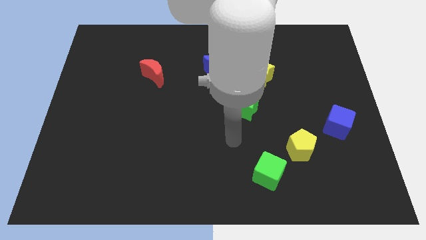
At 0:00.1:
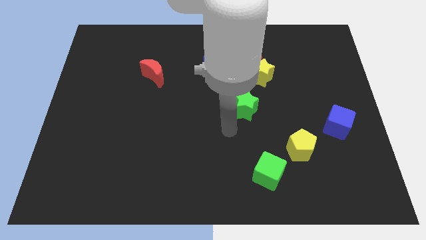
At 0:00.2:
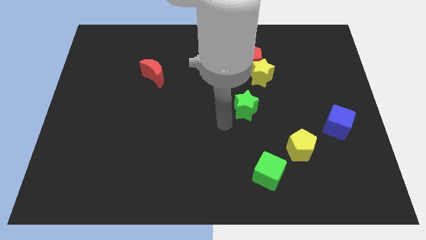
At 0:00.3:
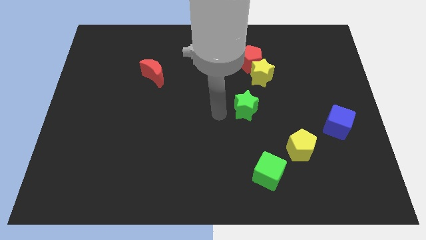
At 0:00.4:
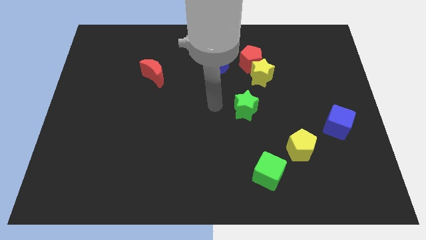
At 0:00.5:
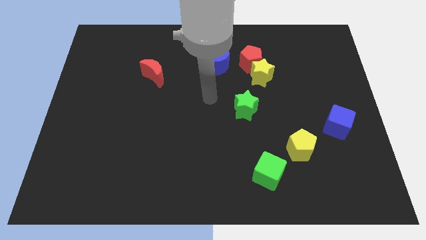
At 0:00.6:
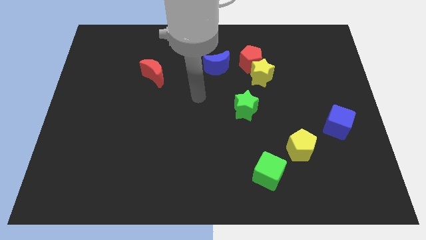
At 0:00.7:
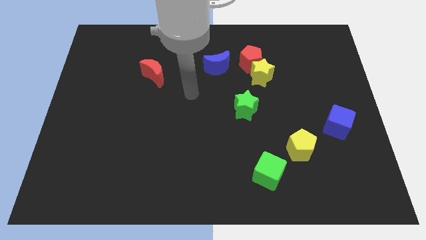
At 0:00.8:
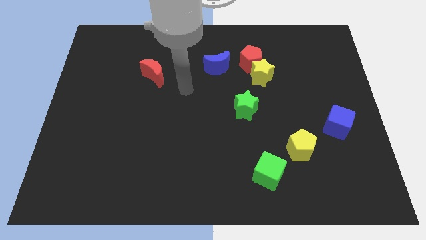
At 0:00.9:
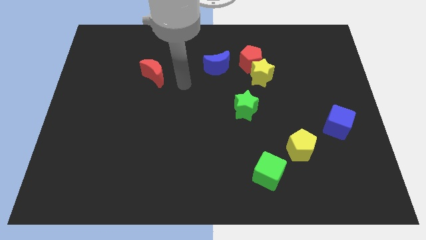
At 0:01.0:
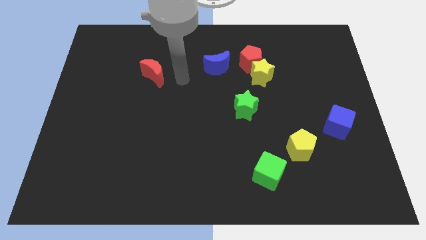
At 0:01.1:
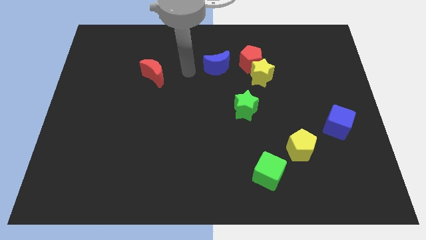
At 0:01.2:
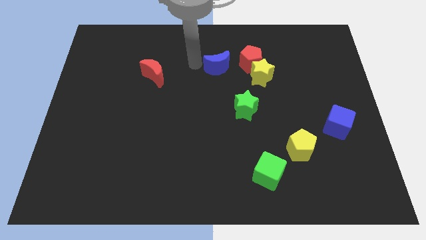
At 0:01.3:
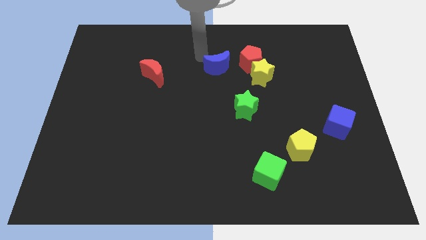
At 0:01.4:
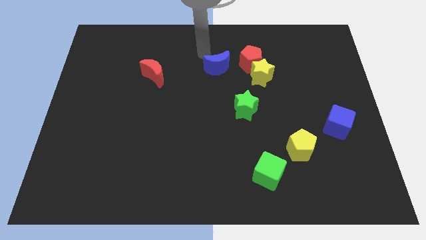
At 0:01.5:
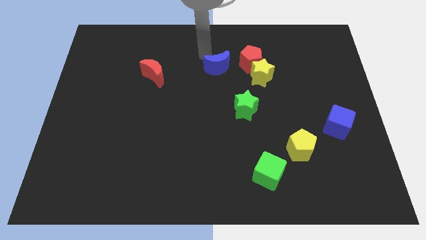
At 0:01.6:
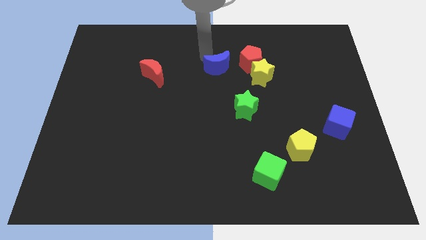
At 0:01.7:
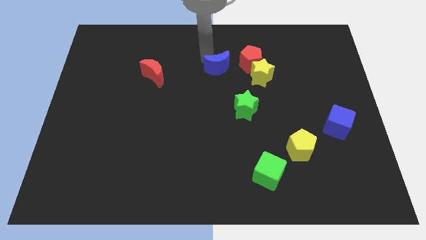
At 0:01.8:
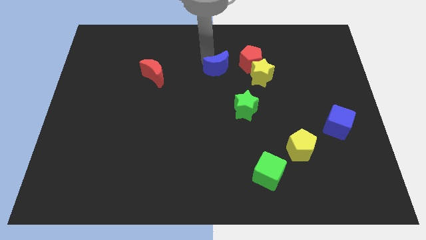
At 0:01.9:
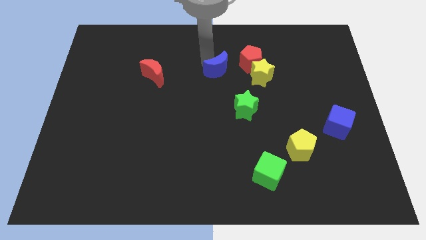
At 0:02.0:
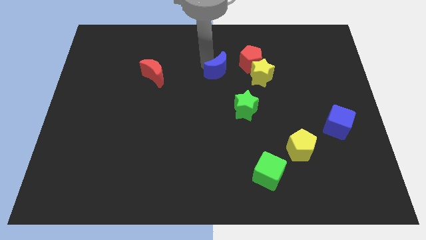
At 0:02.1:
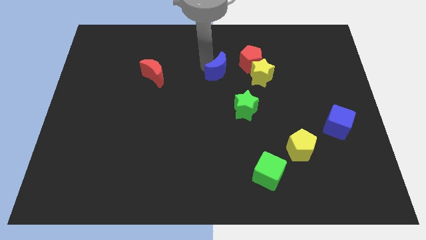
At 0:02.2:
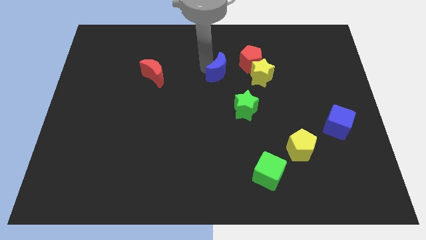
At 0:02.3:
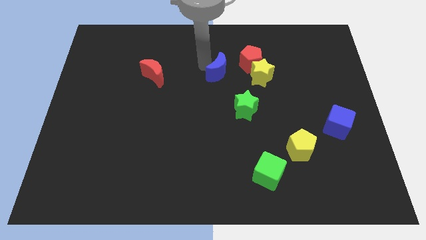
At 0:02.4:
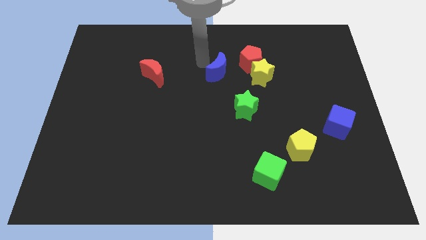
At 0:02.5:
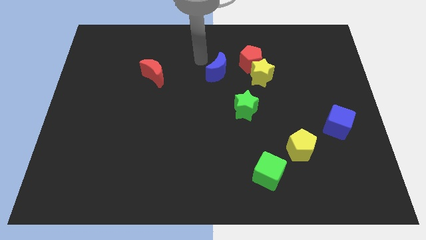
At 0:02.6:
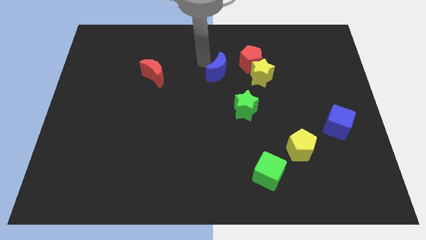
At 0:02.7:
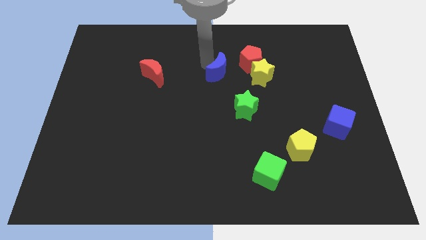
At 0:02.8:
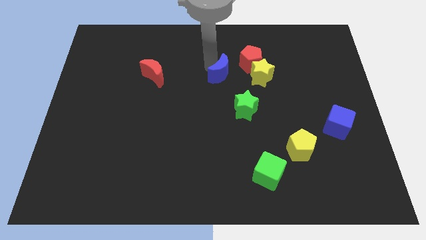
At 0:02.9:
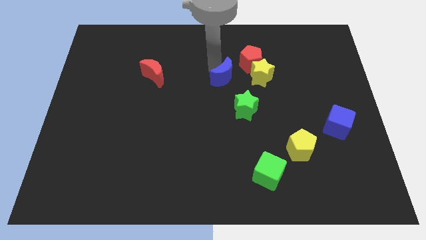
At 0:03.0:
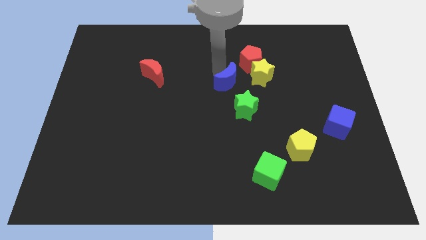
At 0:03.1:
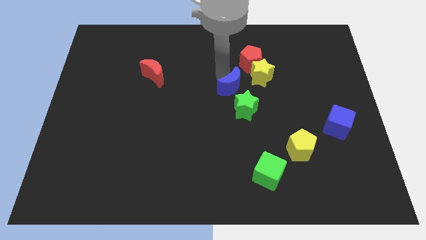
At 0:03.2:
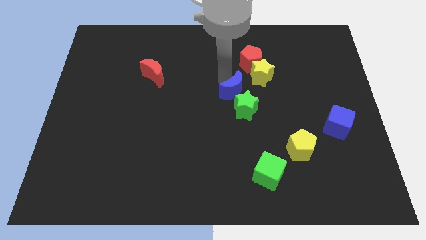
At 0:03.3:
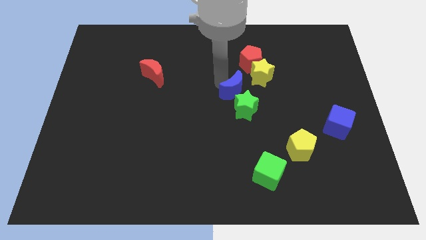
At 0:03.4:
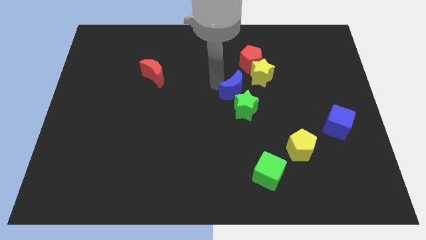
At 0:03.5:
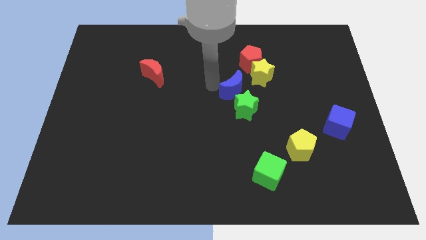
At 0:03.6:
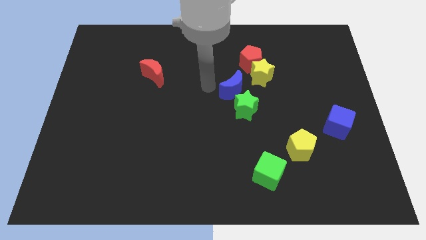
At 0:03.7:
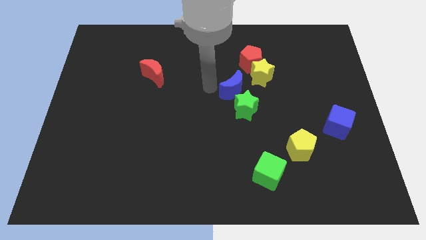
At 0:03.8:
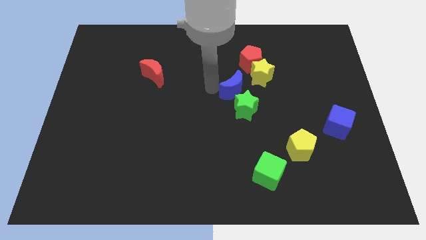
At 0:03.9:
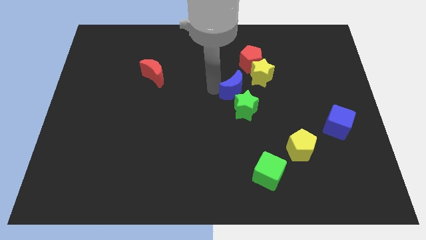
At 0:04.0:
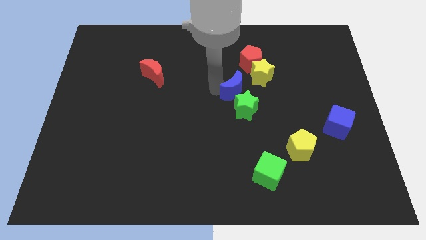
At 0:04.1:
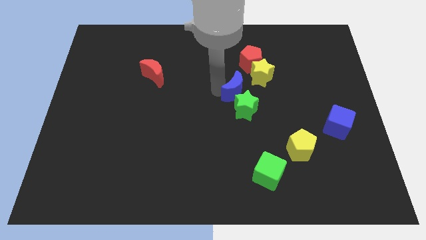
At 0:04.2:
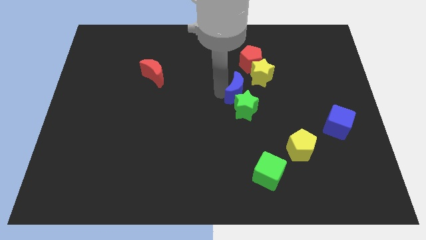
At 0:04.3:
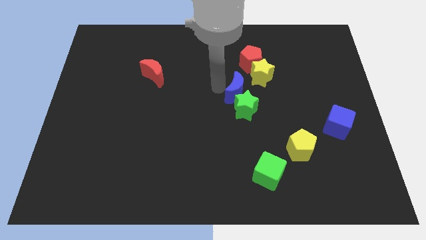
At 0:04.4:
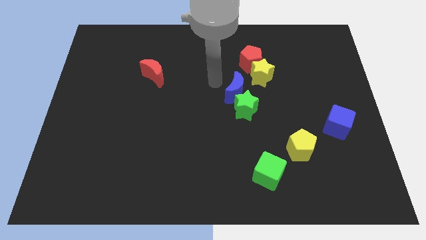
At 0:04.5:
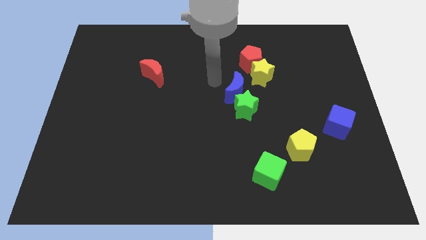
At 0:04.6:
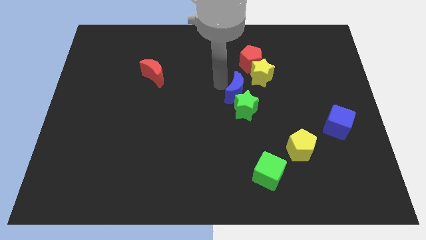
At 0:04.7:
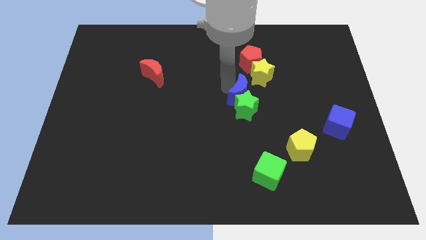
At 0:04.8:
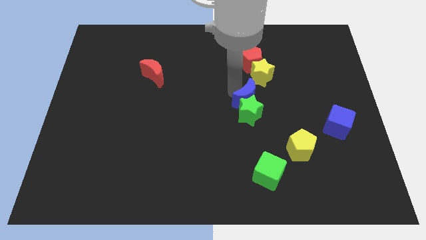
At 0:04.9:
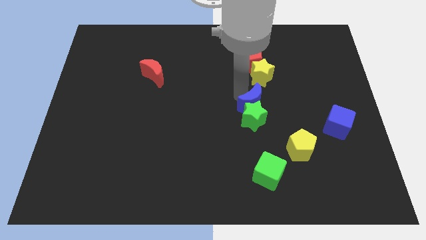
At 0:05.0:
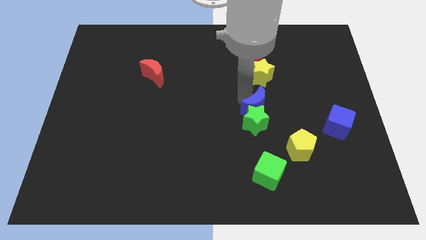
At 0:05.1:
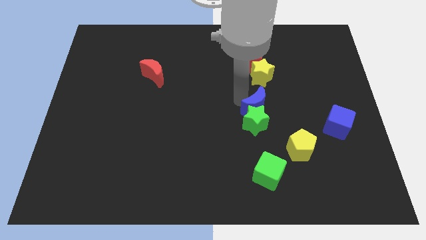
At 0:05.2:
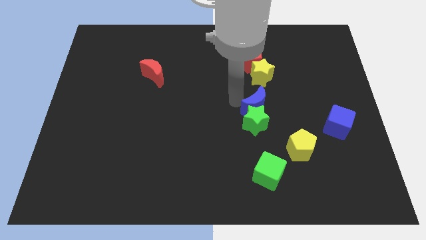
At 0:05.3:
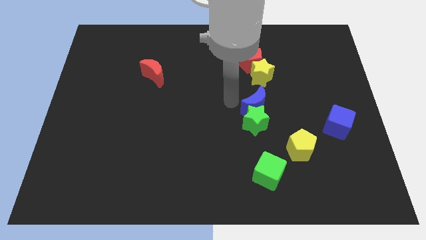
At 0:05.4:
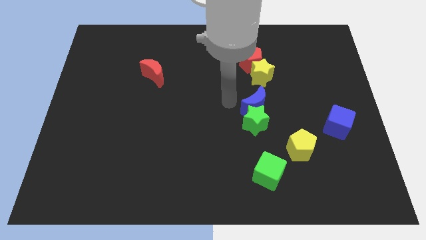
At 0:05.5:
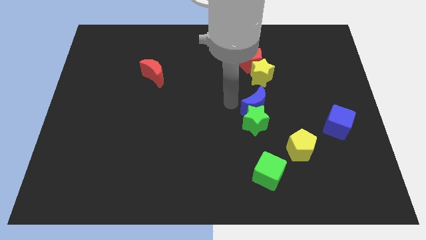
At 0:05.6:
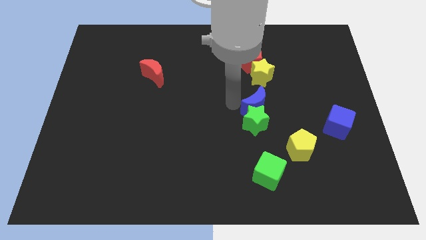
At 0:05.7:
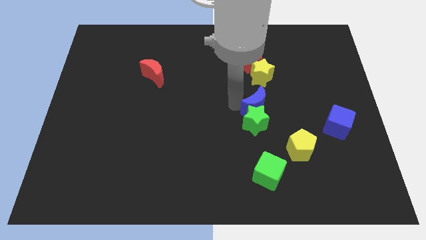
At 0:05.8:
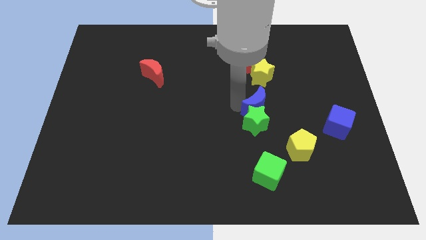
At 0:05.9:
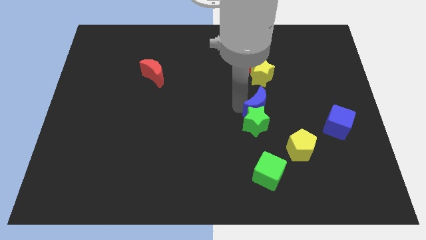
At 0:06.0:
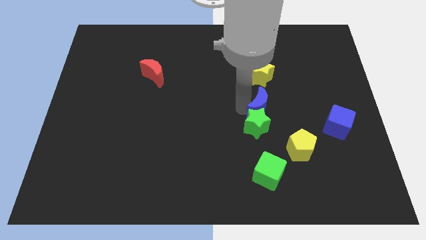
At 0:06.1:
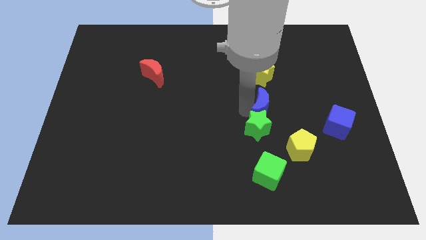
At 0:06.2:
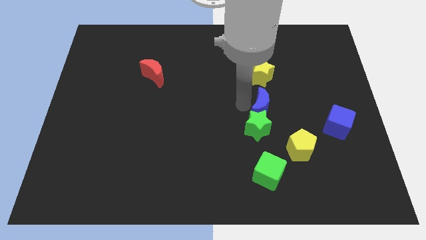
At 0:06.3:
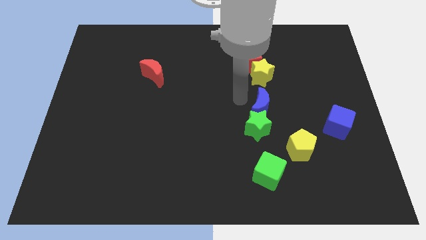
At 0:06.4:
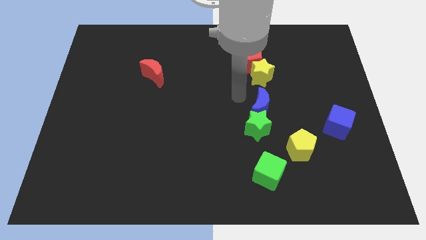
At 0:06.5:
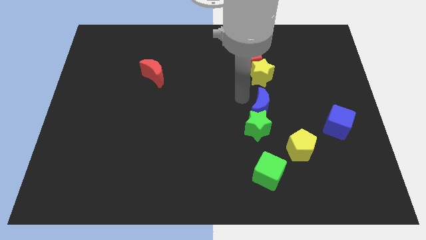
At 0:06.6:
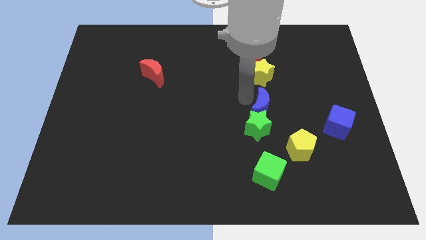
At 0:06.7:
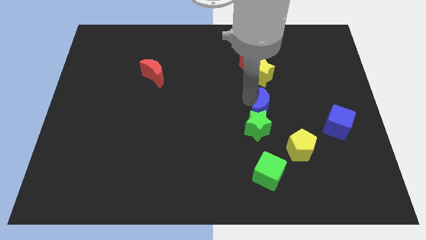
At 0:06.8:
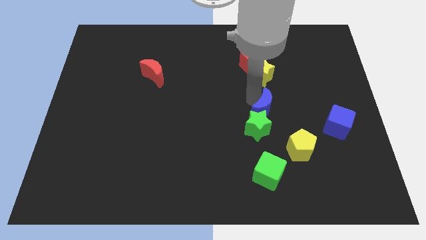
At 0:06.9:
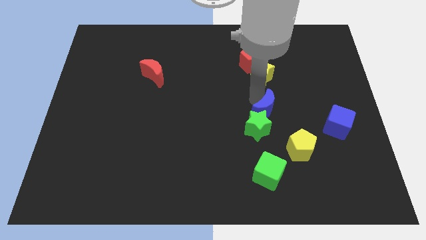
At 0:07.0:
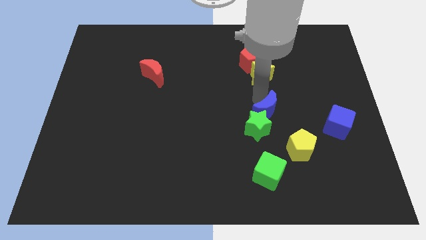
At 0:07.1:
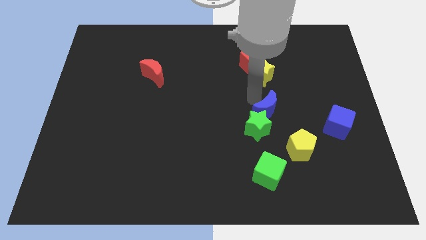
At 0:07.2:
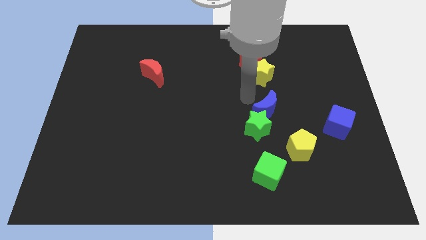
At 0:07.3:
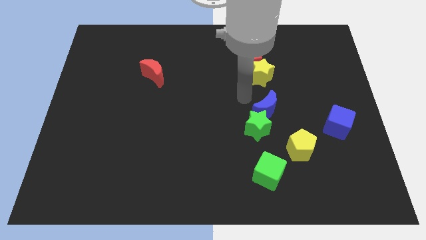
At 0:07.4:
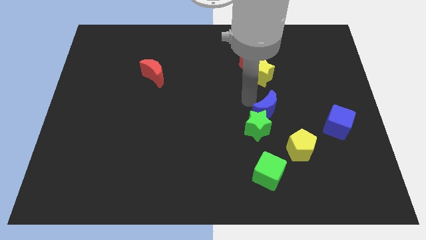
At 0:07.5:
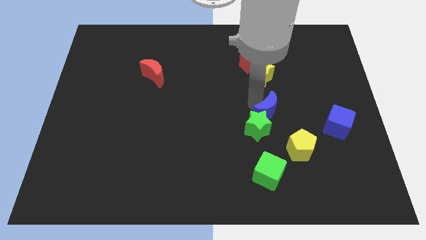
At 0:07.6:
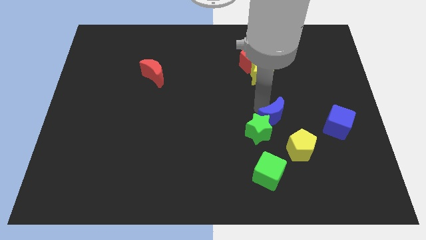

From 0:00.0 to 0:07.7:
move the blue moon just left of the blue cube

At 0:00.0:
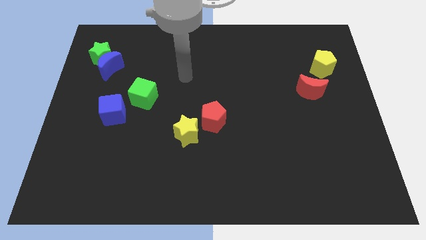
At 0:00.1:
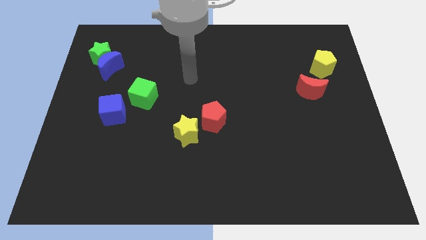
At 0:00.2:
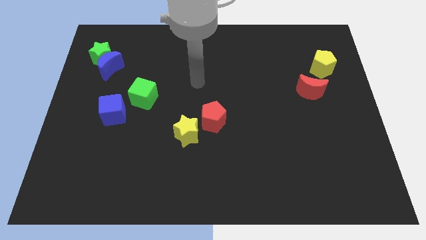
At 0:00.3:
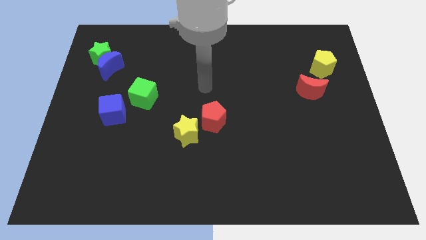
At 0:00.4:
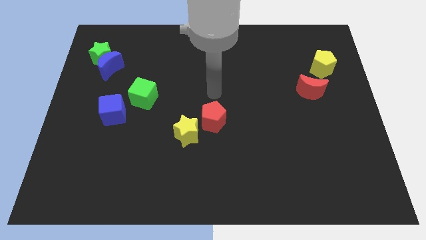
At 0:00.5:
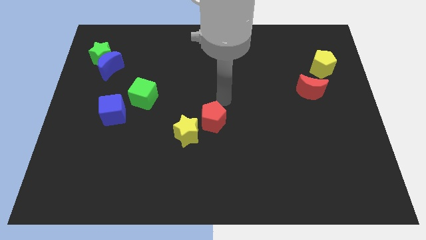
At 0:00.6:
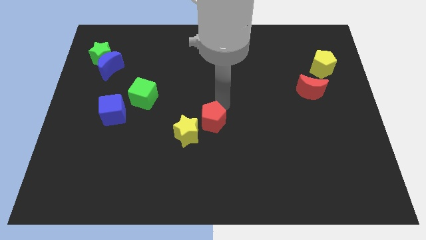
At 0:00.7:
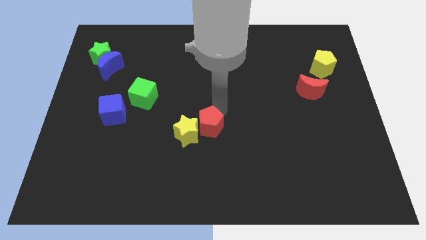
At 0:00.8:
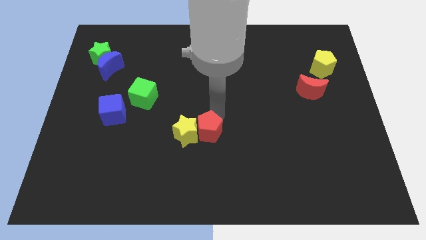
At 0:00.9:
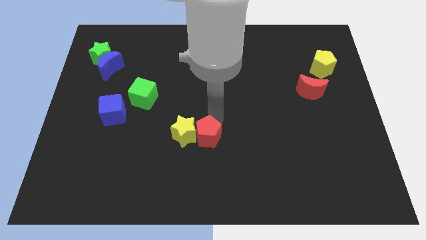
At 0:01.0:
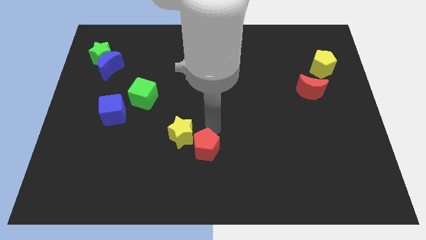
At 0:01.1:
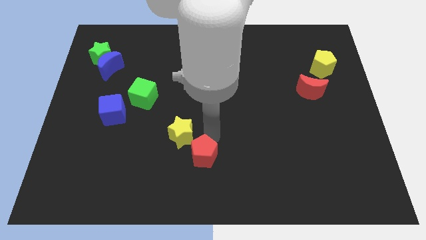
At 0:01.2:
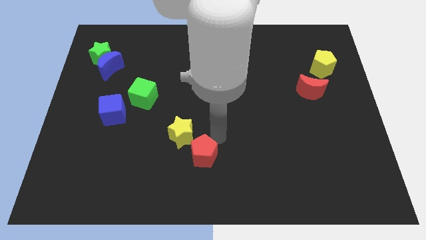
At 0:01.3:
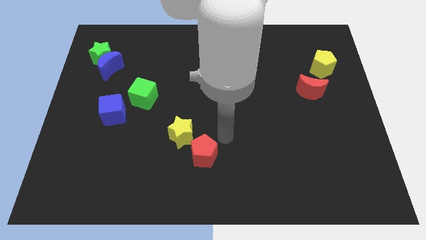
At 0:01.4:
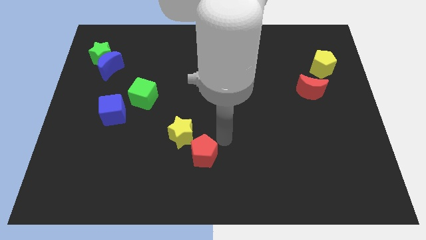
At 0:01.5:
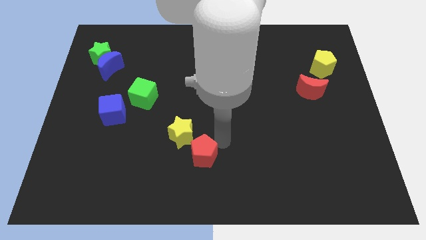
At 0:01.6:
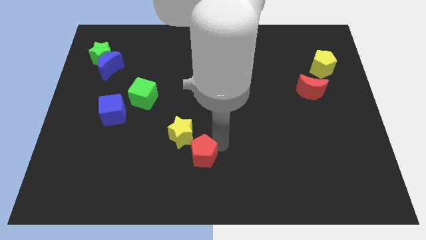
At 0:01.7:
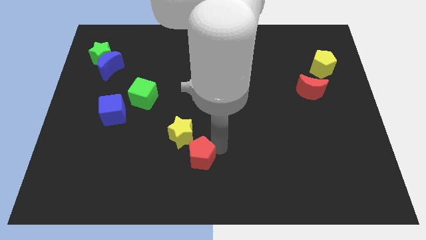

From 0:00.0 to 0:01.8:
slide the red pentagon to the bottom of the yellow star
